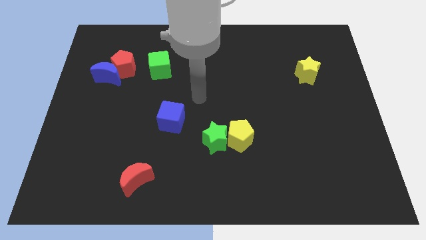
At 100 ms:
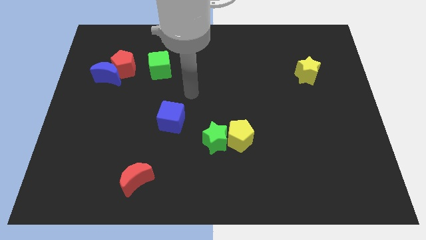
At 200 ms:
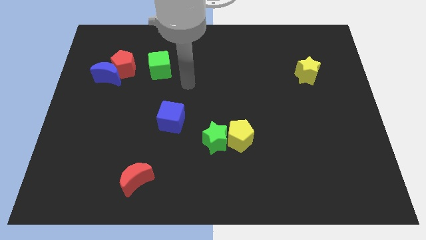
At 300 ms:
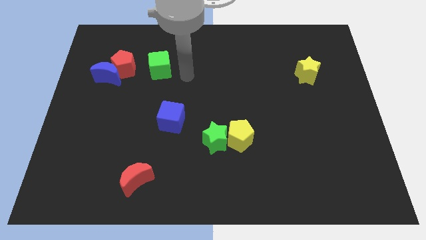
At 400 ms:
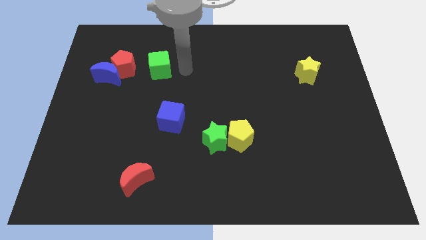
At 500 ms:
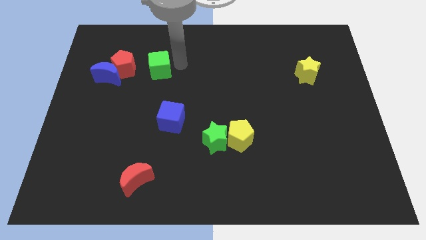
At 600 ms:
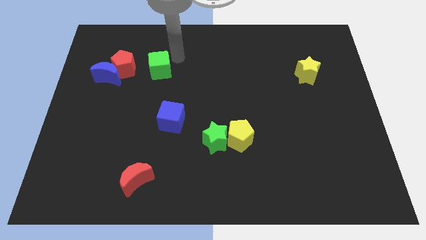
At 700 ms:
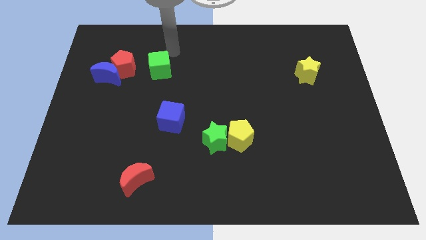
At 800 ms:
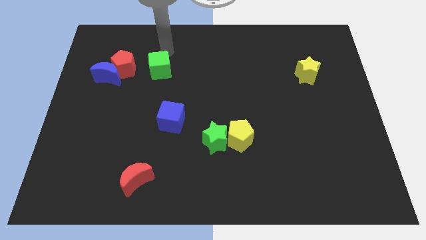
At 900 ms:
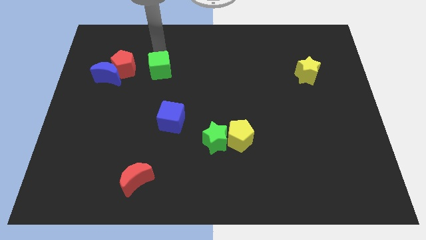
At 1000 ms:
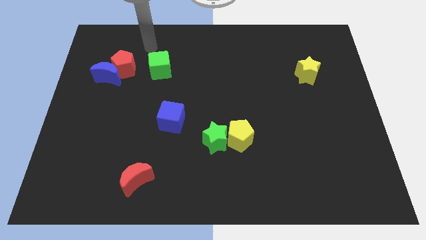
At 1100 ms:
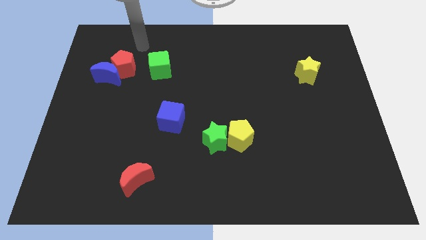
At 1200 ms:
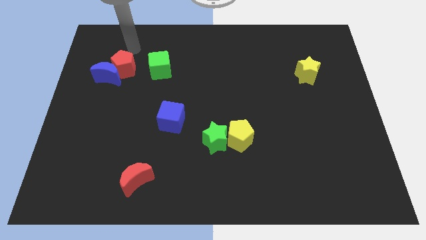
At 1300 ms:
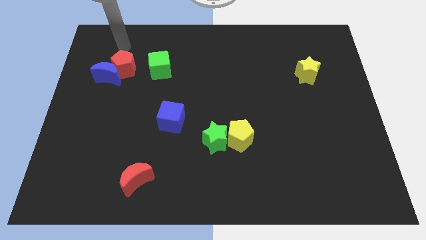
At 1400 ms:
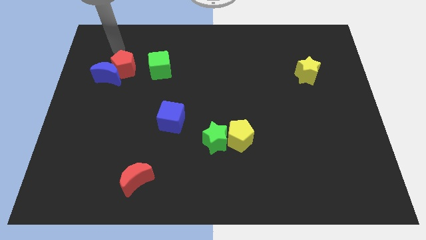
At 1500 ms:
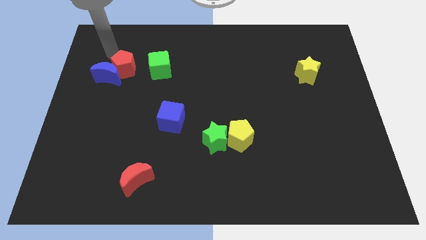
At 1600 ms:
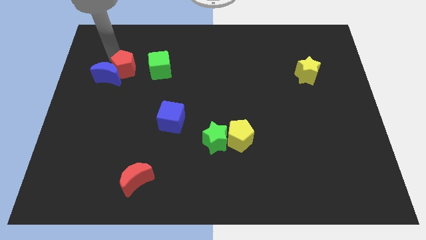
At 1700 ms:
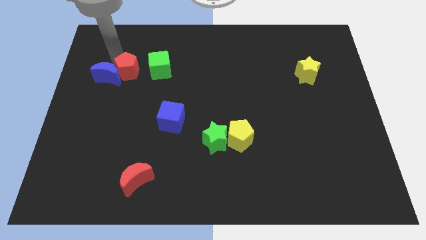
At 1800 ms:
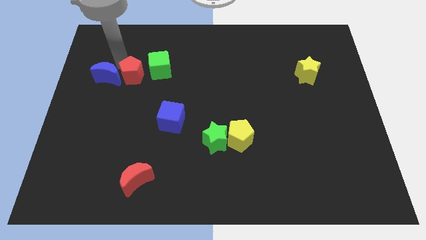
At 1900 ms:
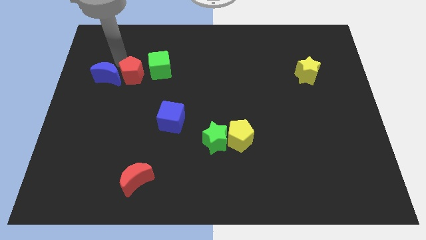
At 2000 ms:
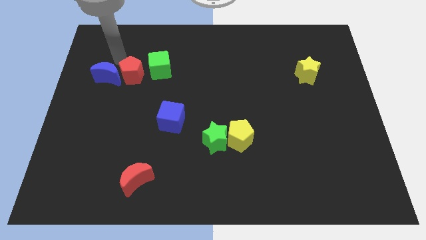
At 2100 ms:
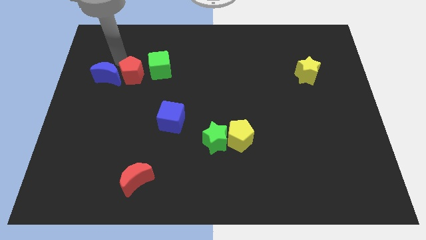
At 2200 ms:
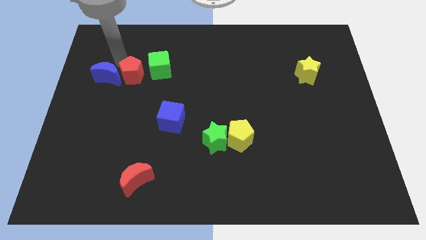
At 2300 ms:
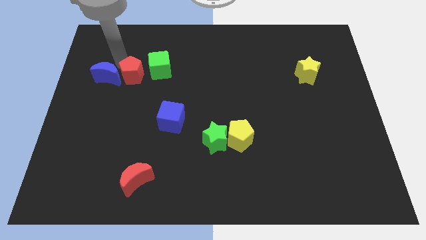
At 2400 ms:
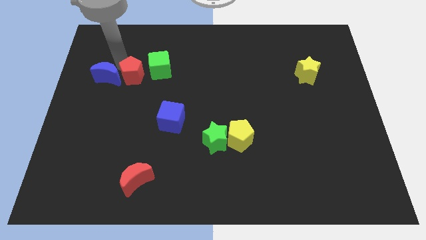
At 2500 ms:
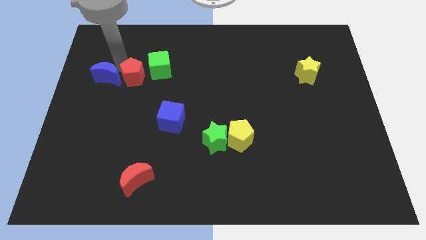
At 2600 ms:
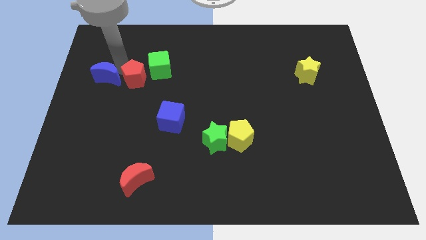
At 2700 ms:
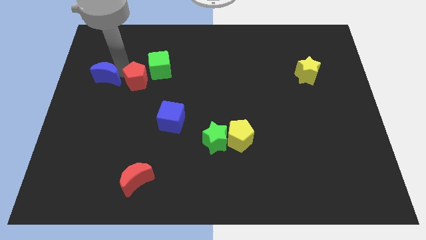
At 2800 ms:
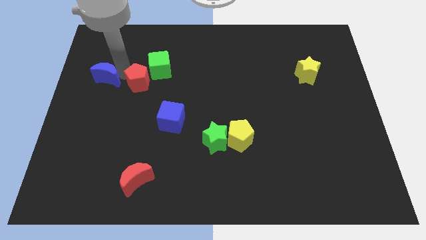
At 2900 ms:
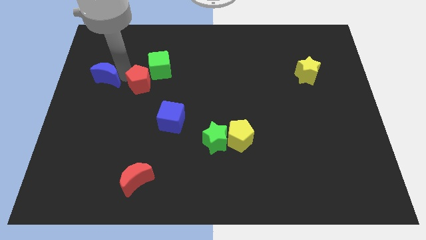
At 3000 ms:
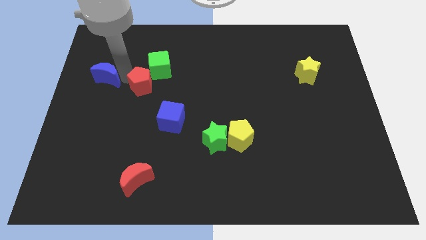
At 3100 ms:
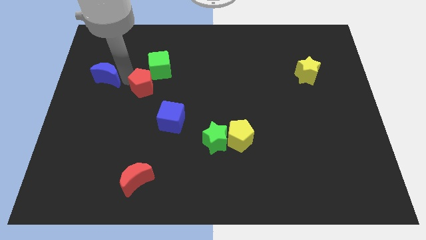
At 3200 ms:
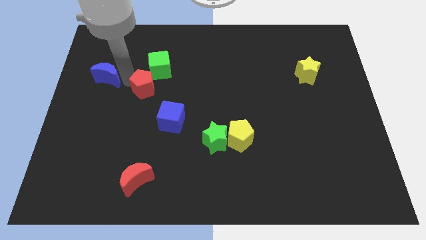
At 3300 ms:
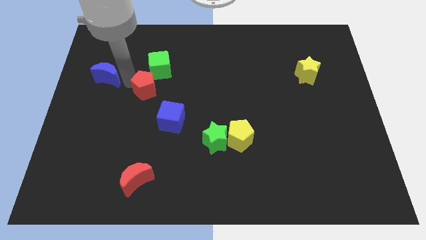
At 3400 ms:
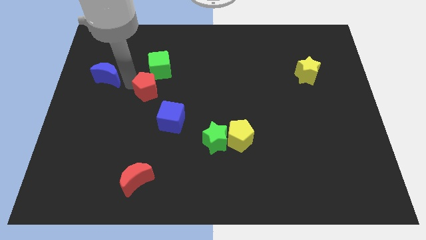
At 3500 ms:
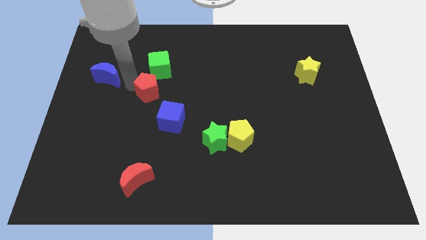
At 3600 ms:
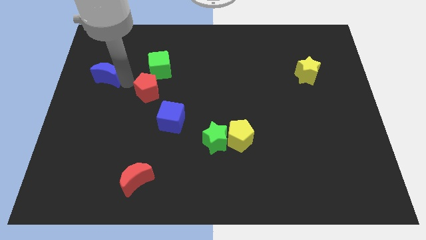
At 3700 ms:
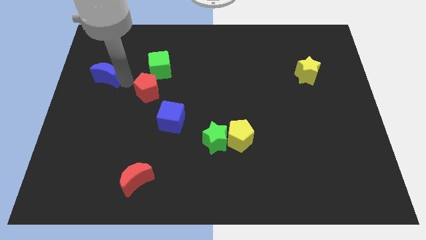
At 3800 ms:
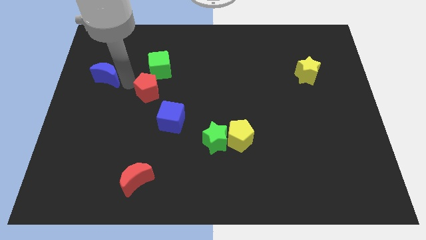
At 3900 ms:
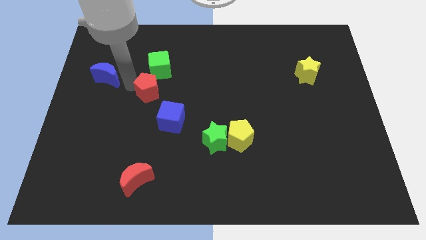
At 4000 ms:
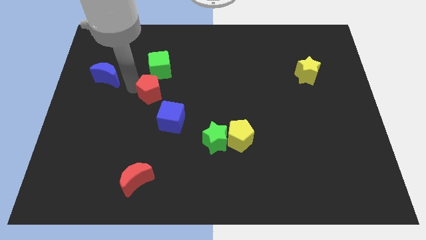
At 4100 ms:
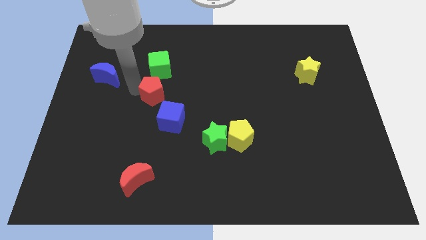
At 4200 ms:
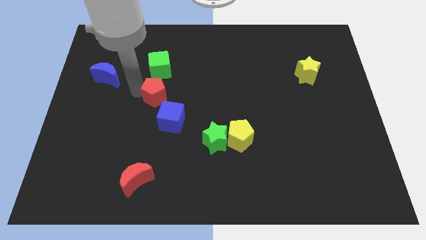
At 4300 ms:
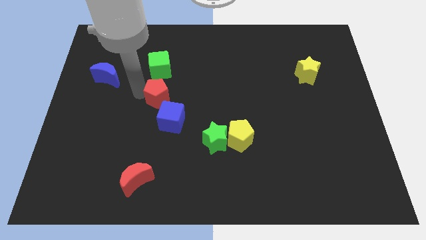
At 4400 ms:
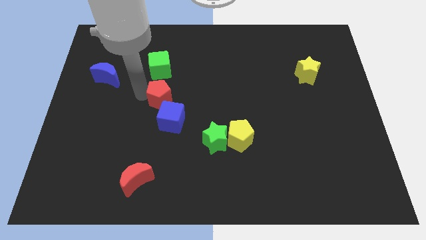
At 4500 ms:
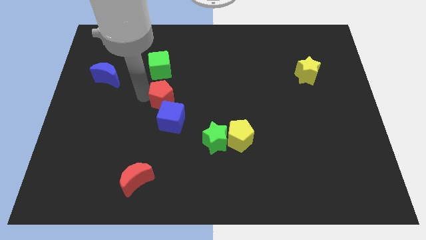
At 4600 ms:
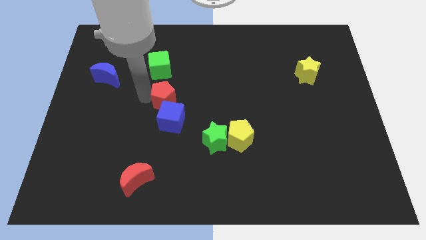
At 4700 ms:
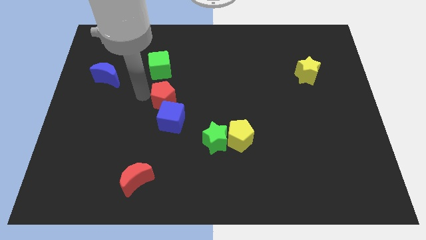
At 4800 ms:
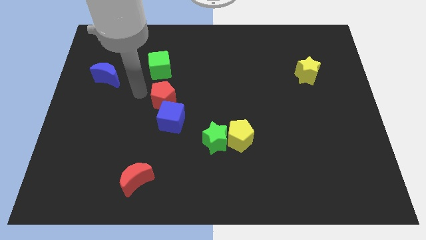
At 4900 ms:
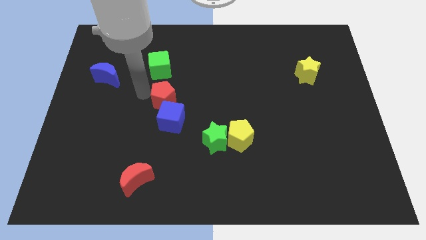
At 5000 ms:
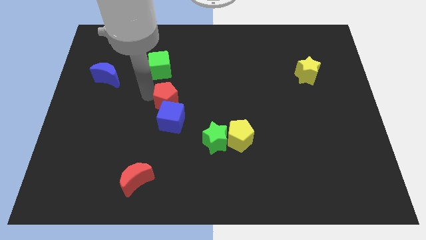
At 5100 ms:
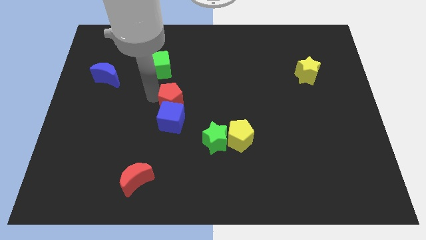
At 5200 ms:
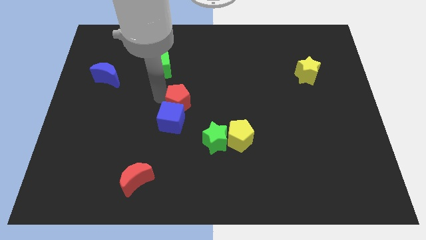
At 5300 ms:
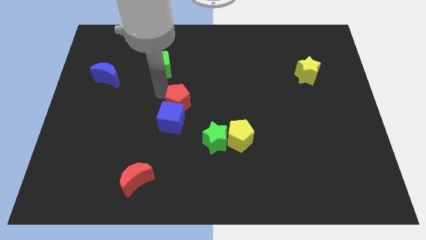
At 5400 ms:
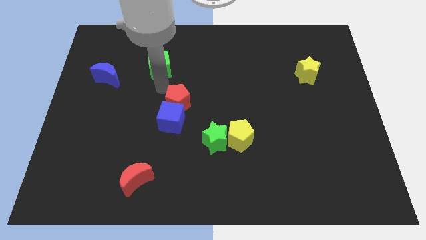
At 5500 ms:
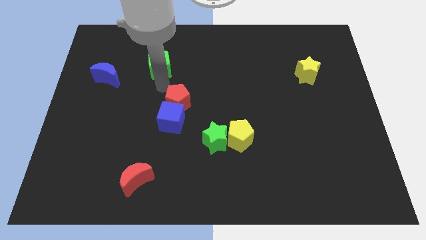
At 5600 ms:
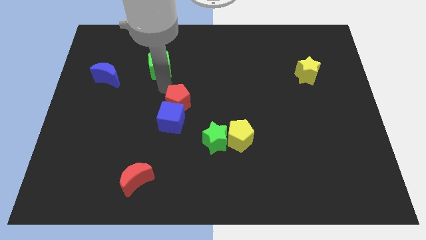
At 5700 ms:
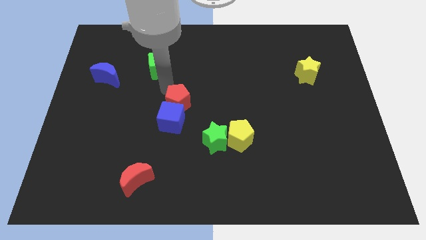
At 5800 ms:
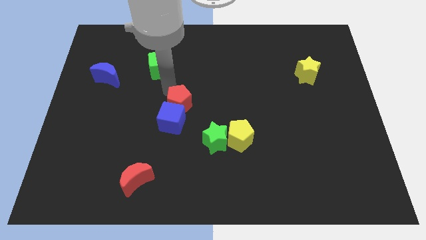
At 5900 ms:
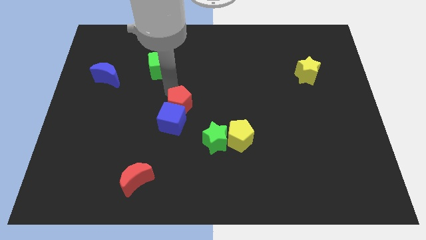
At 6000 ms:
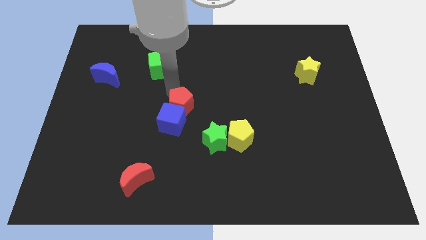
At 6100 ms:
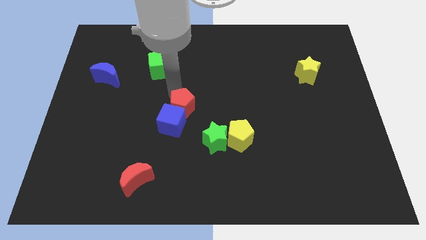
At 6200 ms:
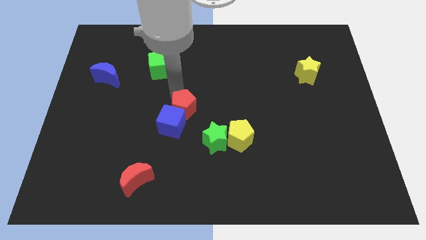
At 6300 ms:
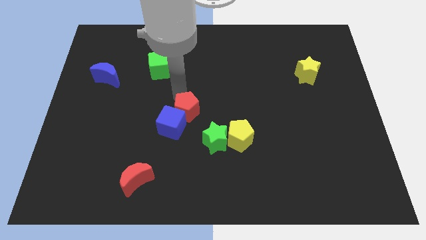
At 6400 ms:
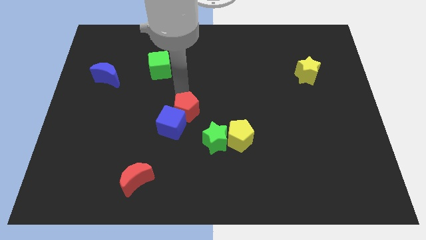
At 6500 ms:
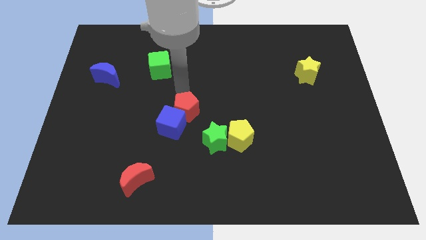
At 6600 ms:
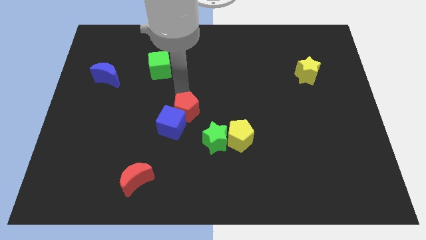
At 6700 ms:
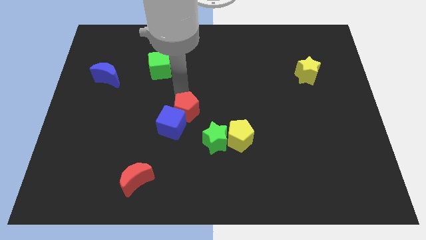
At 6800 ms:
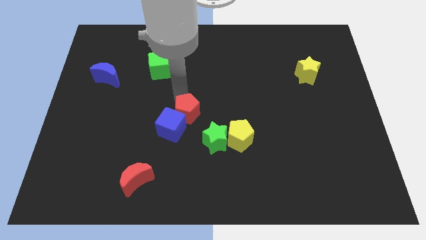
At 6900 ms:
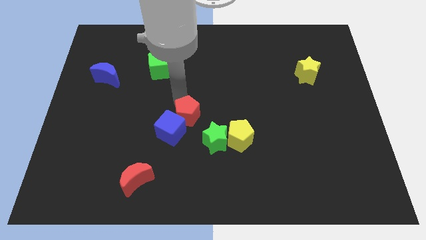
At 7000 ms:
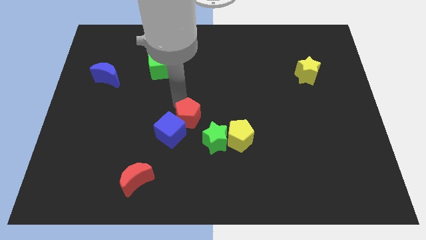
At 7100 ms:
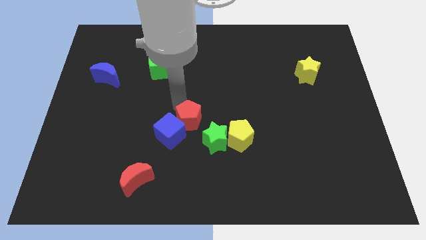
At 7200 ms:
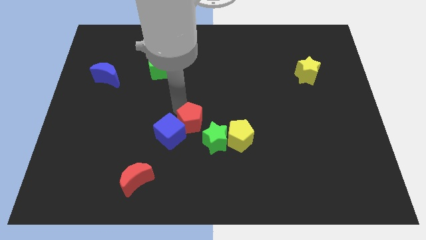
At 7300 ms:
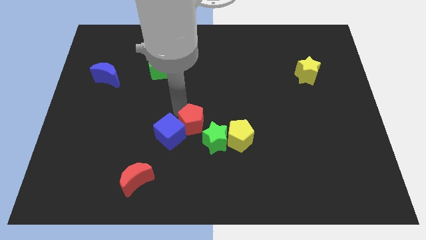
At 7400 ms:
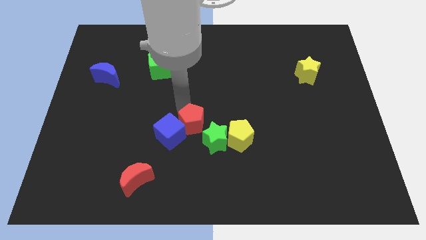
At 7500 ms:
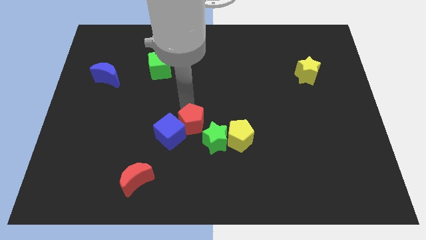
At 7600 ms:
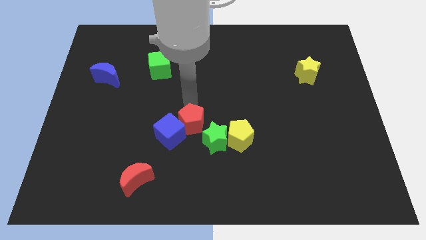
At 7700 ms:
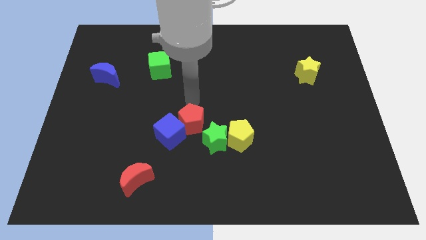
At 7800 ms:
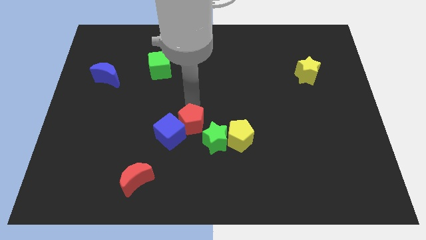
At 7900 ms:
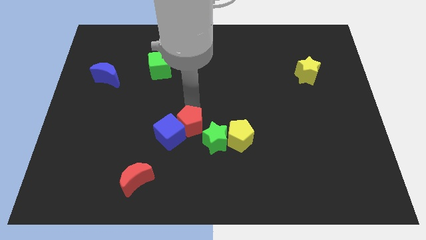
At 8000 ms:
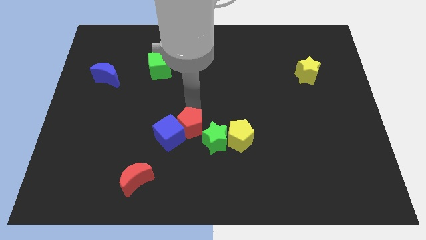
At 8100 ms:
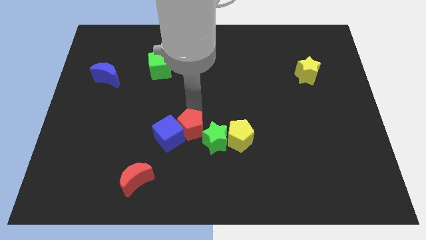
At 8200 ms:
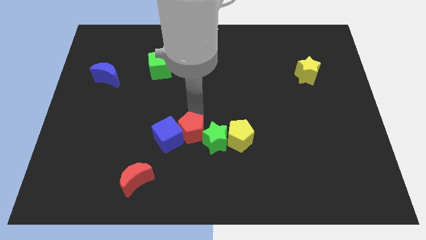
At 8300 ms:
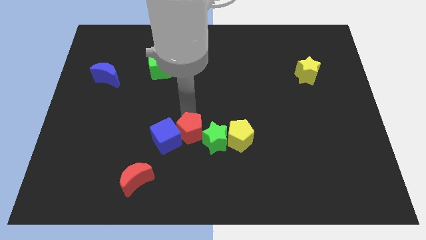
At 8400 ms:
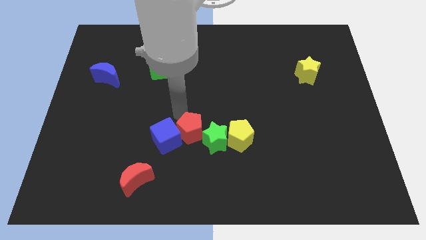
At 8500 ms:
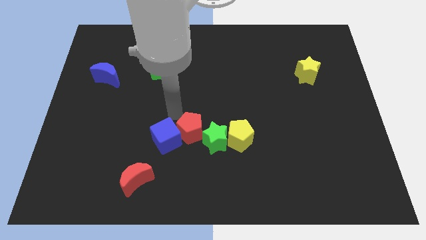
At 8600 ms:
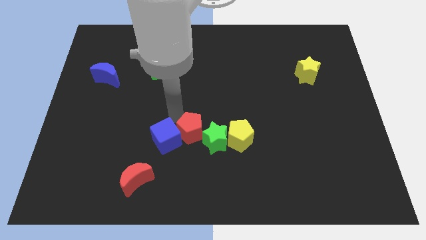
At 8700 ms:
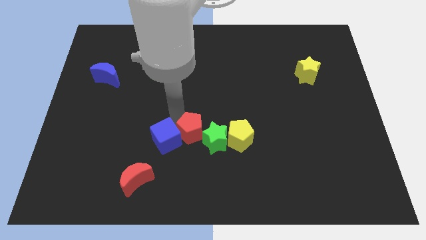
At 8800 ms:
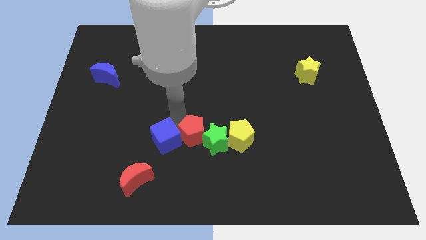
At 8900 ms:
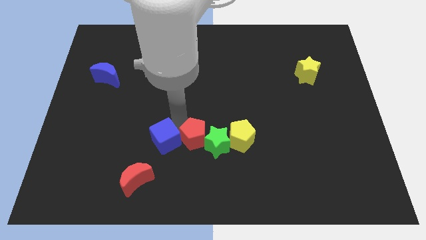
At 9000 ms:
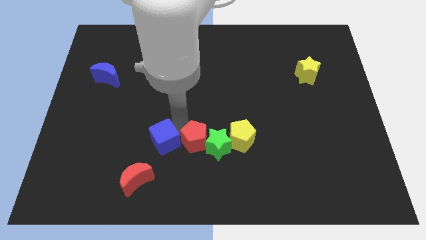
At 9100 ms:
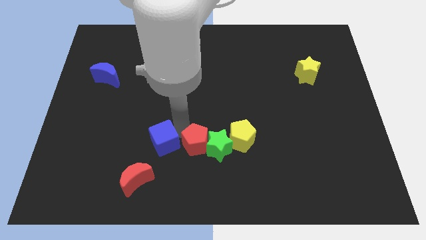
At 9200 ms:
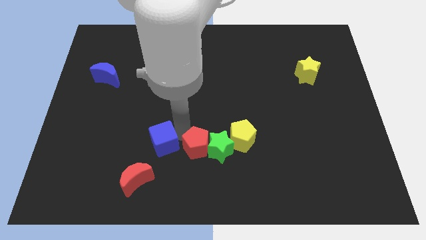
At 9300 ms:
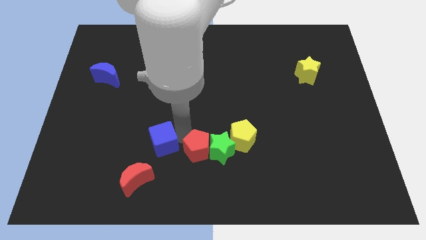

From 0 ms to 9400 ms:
push the red pentagon to the bottom left of the yellow pentagon
